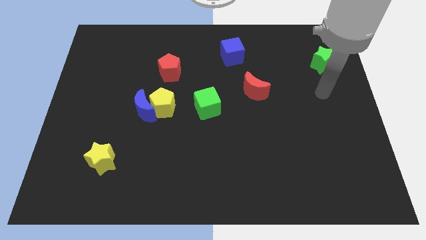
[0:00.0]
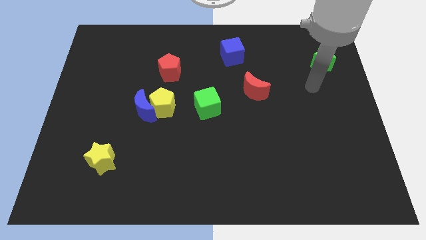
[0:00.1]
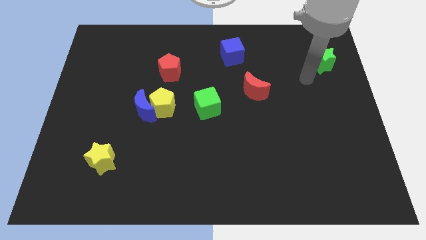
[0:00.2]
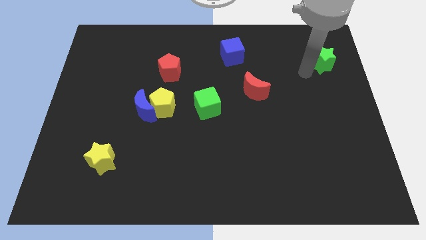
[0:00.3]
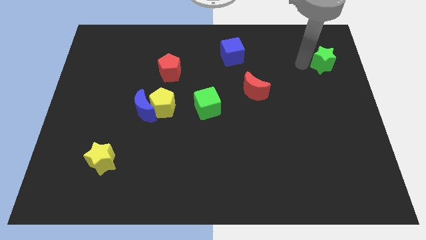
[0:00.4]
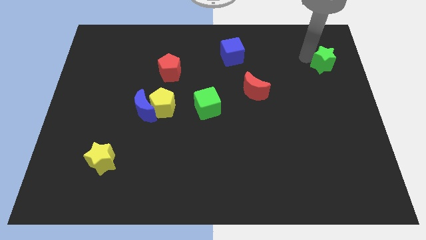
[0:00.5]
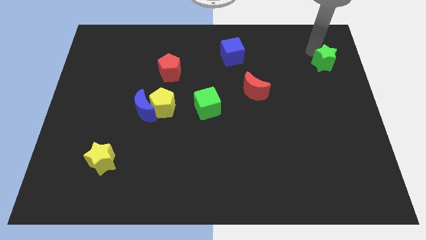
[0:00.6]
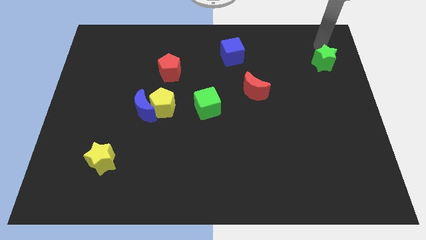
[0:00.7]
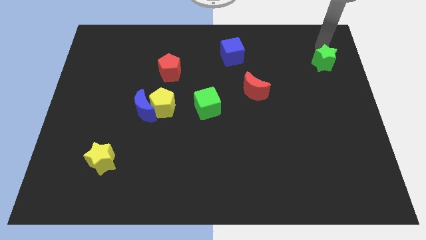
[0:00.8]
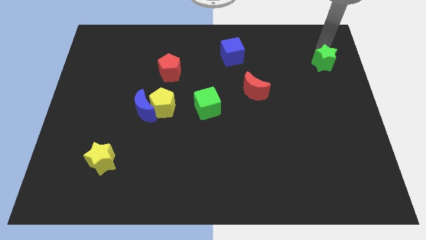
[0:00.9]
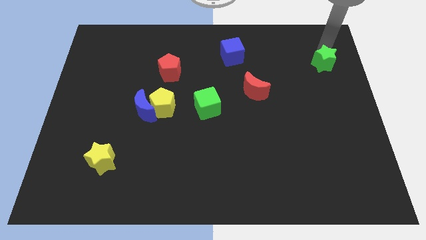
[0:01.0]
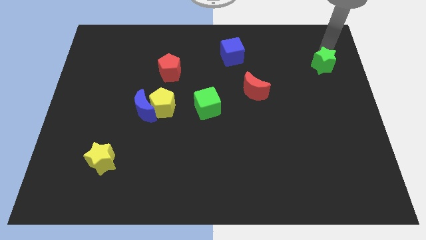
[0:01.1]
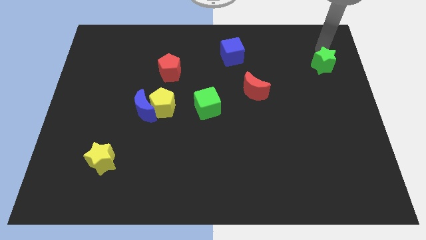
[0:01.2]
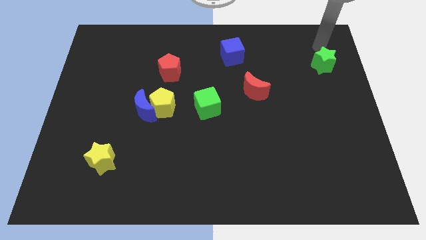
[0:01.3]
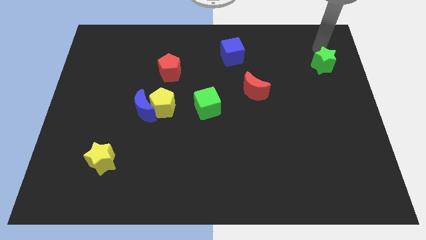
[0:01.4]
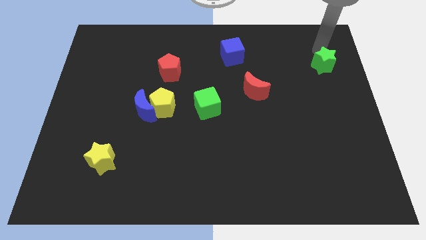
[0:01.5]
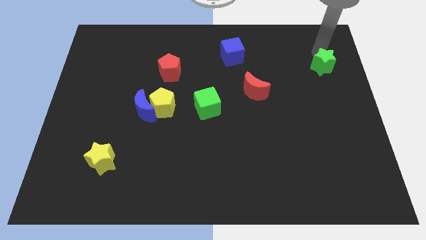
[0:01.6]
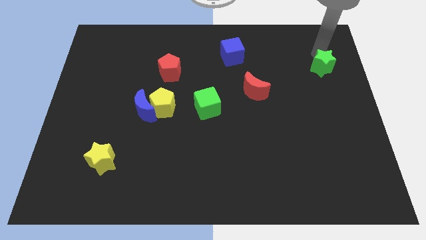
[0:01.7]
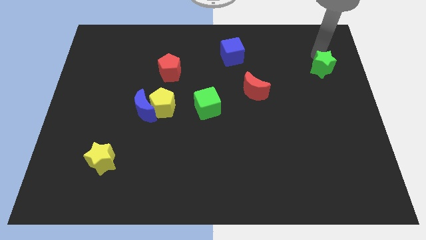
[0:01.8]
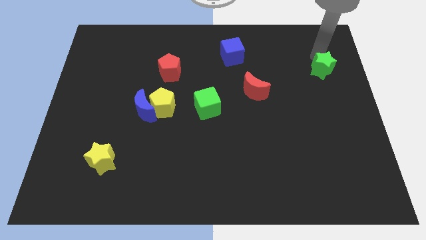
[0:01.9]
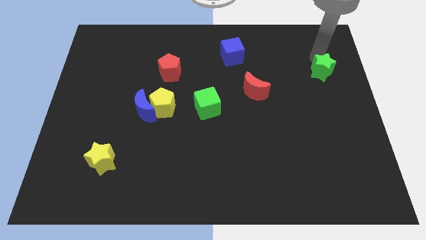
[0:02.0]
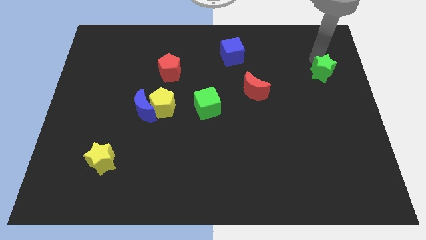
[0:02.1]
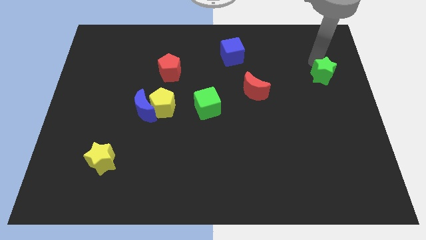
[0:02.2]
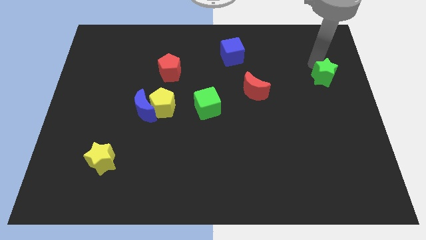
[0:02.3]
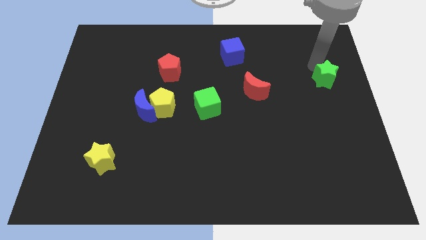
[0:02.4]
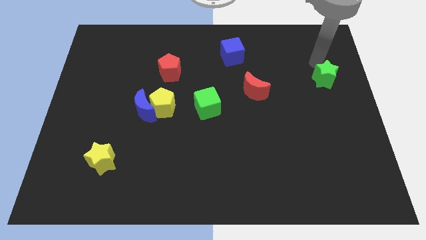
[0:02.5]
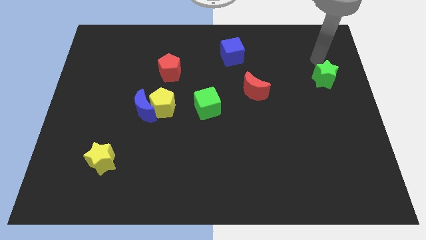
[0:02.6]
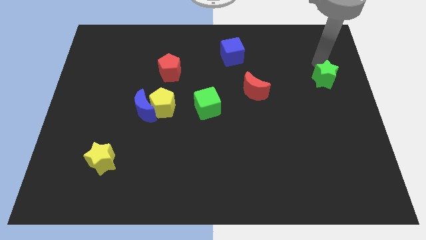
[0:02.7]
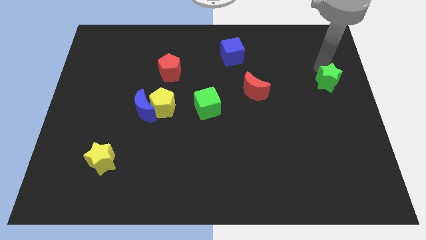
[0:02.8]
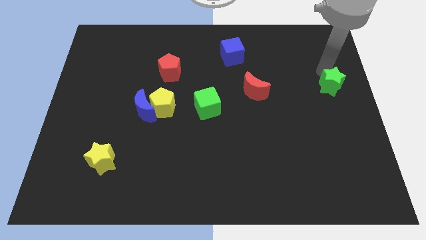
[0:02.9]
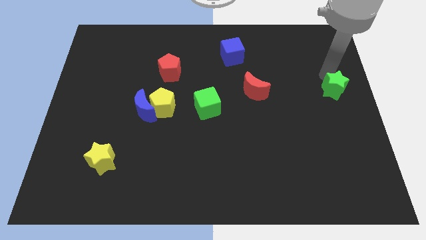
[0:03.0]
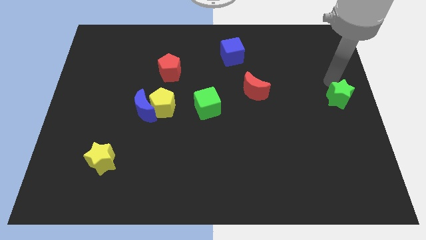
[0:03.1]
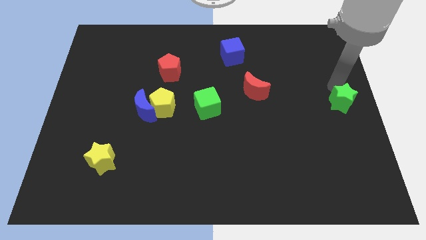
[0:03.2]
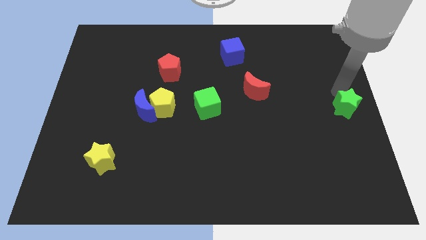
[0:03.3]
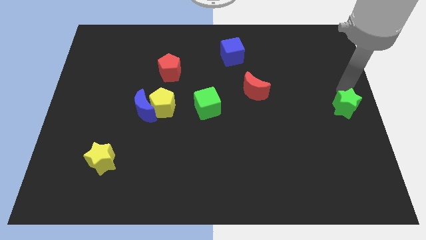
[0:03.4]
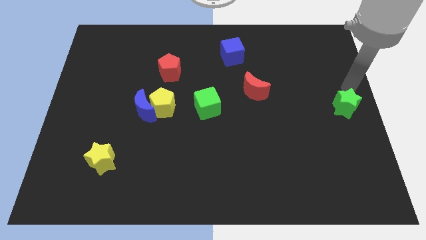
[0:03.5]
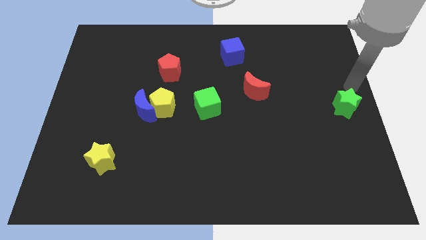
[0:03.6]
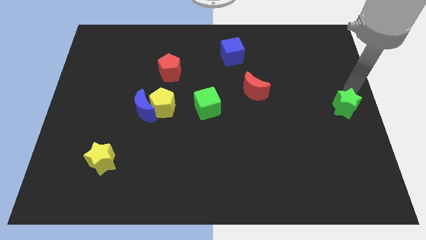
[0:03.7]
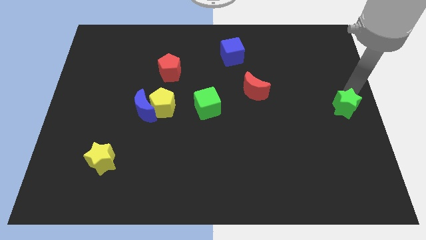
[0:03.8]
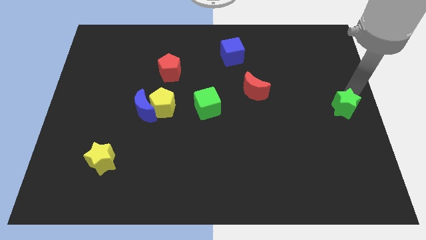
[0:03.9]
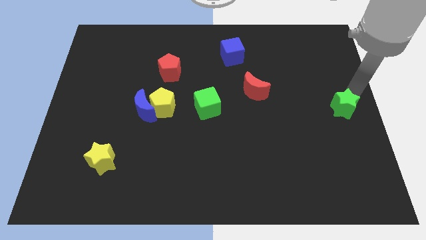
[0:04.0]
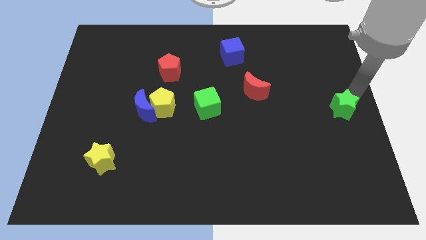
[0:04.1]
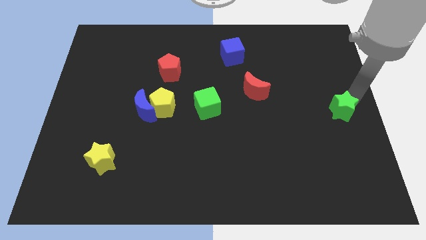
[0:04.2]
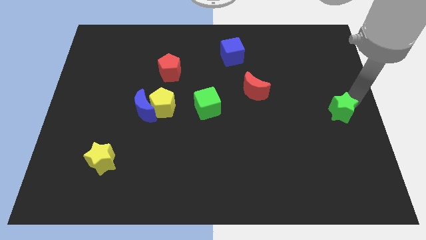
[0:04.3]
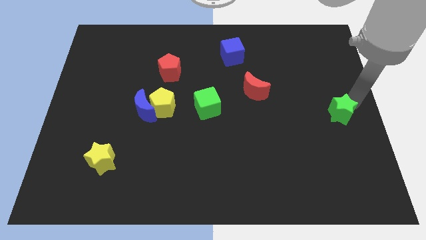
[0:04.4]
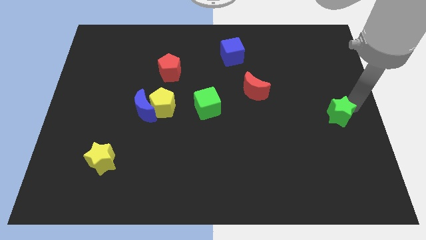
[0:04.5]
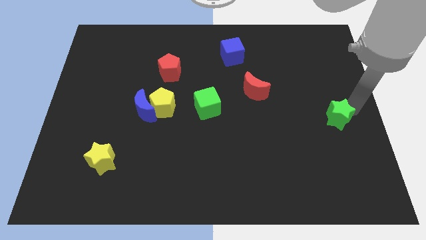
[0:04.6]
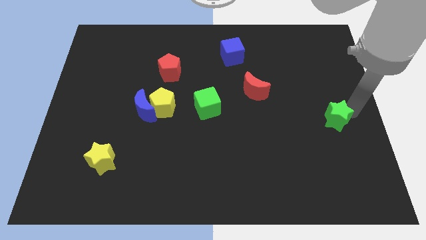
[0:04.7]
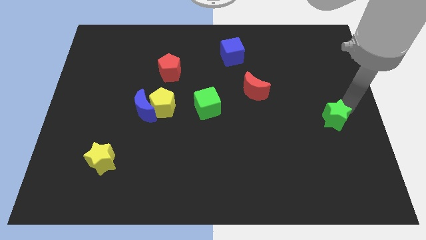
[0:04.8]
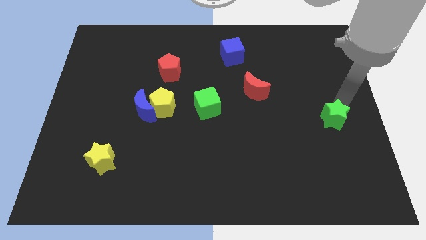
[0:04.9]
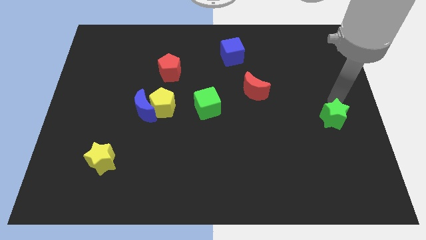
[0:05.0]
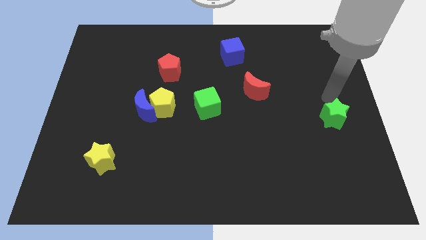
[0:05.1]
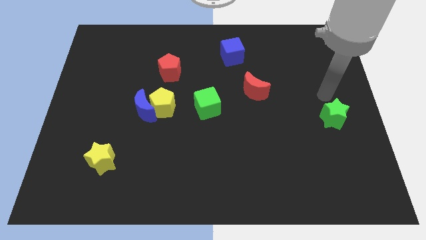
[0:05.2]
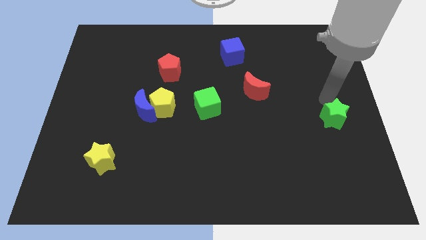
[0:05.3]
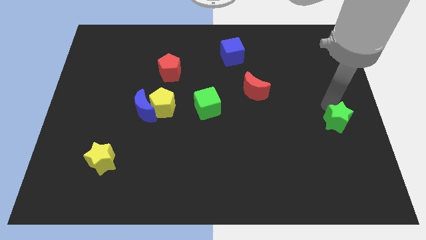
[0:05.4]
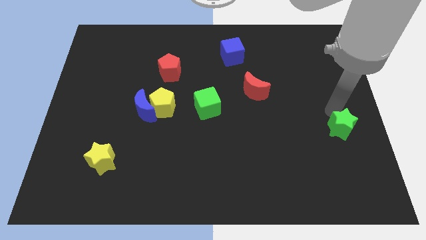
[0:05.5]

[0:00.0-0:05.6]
move the green star down

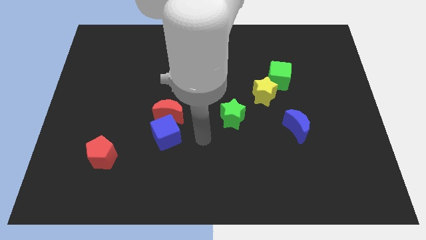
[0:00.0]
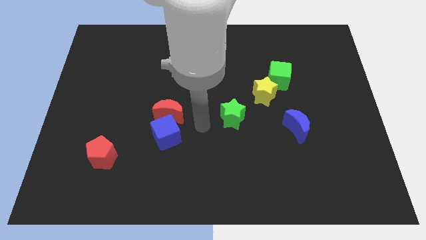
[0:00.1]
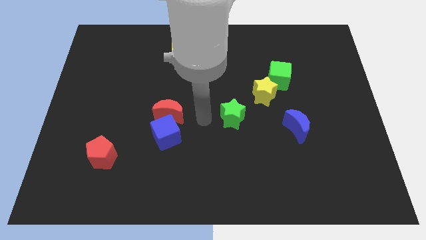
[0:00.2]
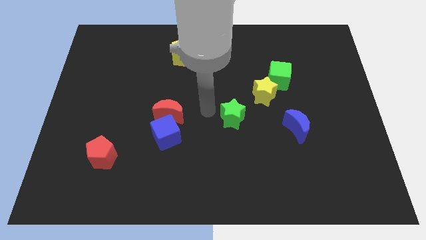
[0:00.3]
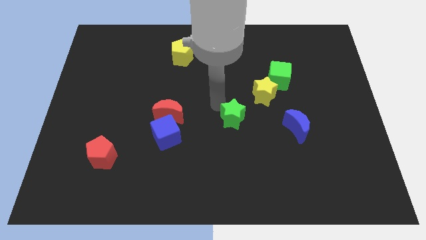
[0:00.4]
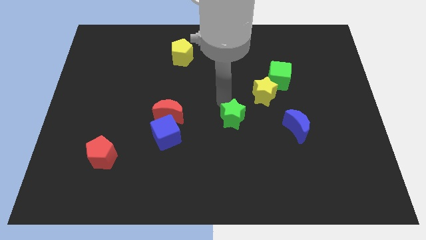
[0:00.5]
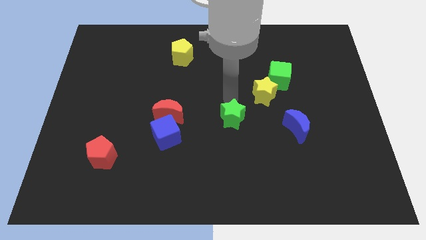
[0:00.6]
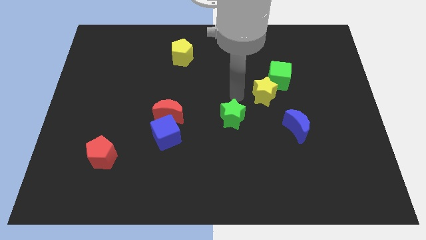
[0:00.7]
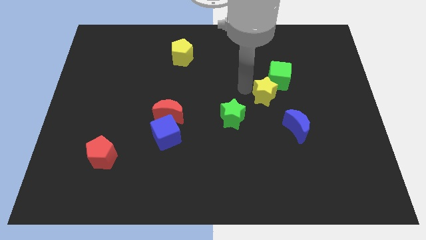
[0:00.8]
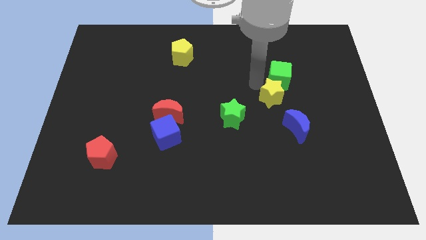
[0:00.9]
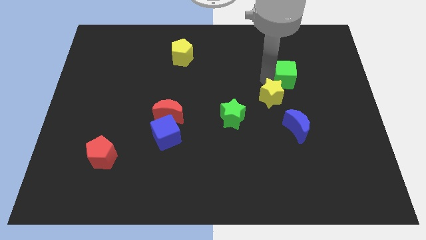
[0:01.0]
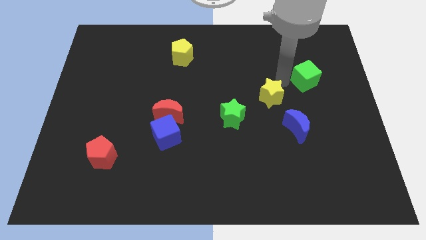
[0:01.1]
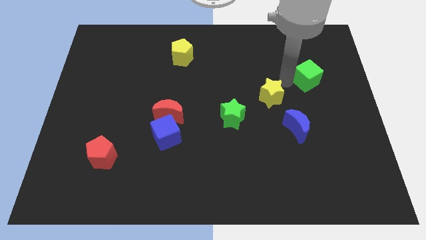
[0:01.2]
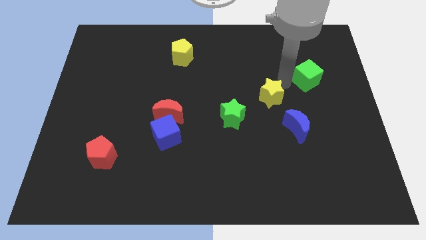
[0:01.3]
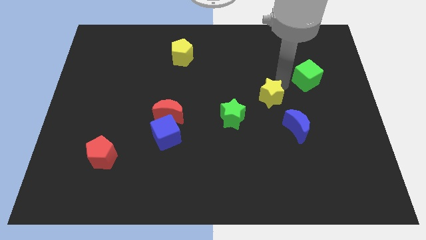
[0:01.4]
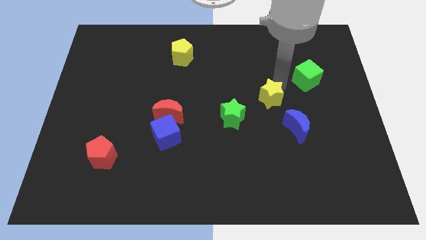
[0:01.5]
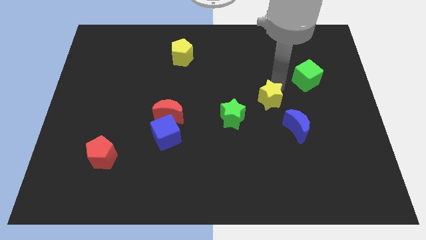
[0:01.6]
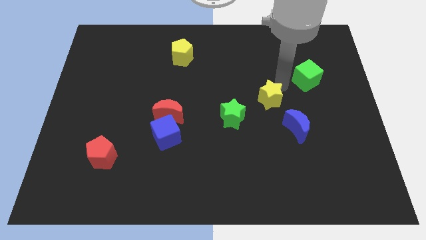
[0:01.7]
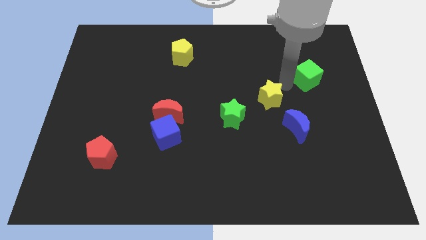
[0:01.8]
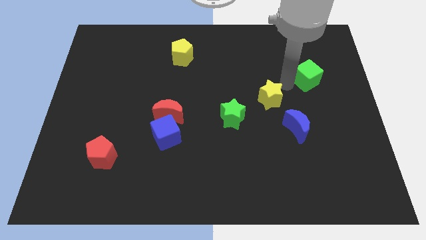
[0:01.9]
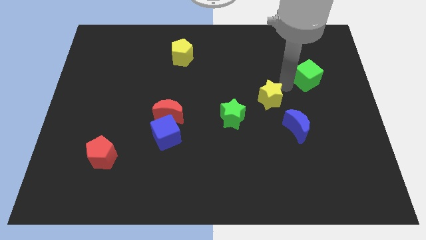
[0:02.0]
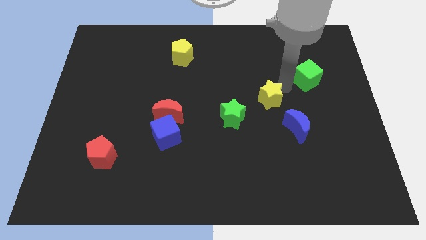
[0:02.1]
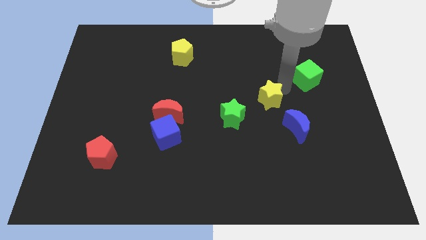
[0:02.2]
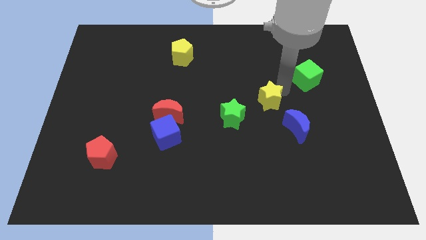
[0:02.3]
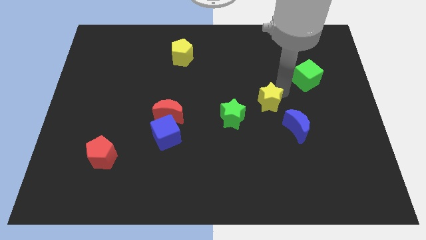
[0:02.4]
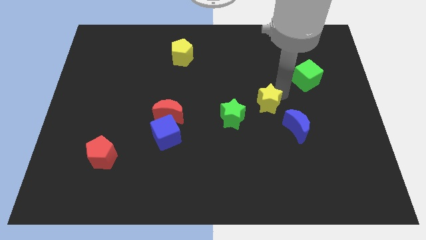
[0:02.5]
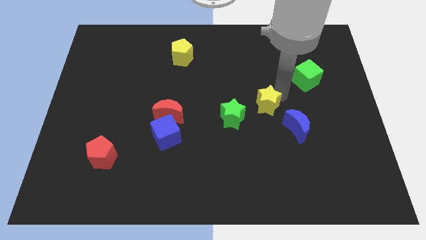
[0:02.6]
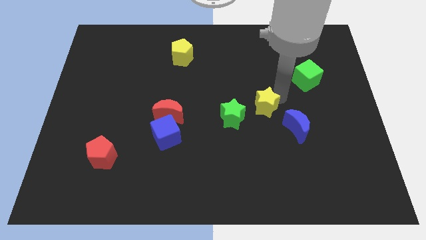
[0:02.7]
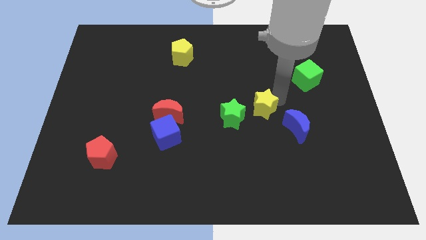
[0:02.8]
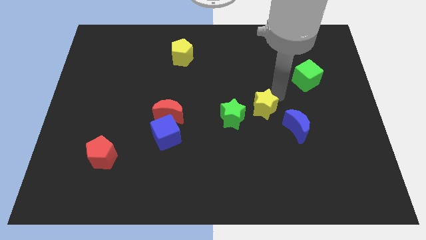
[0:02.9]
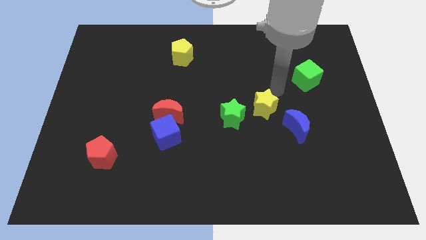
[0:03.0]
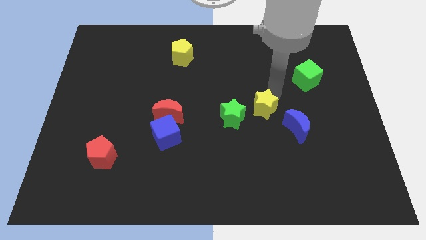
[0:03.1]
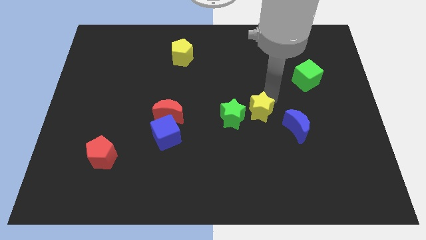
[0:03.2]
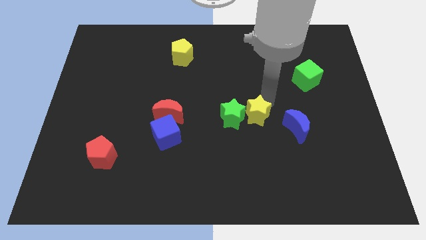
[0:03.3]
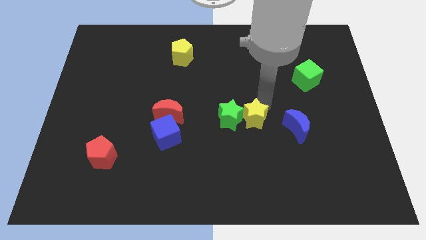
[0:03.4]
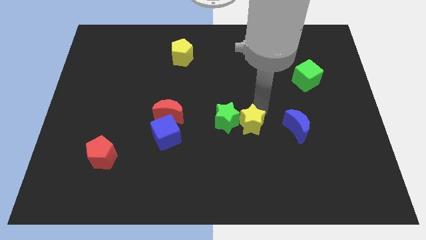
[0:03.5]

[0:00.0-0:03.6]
move the yellow star a bit down and to the left diagonally
